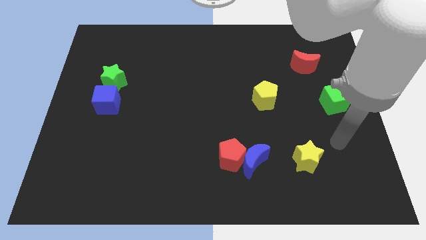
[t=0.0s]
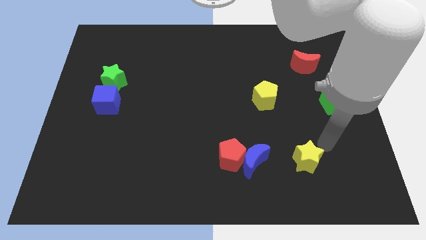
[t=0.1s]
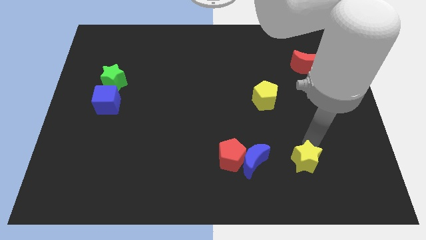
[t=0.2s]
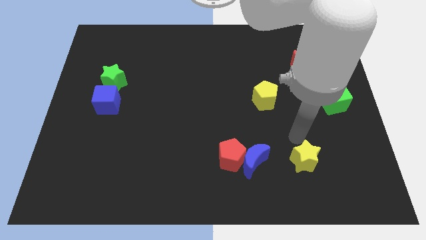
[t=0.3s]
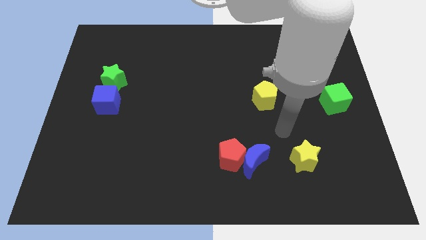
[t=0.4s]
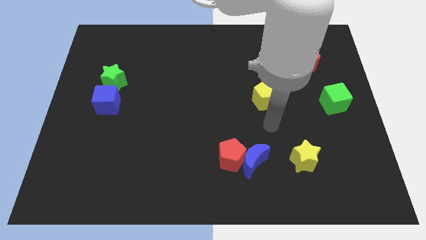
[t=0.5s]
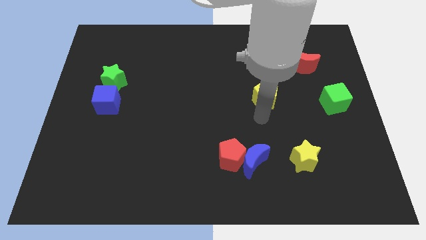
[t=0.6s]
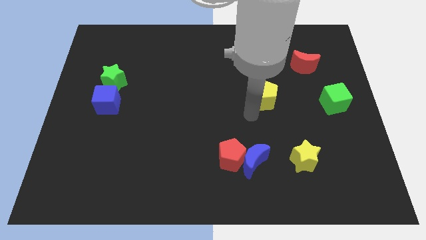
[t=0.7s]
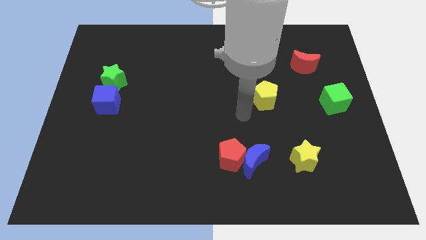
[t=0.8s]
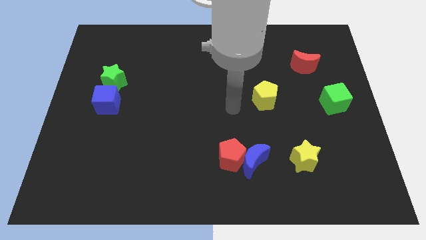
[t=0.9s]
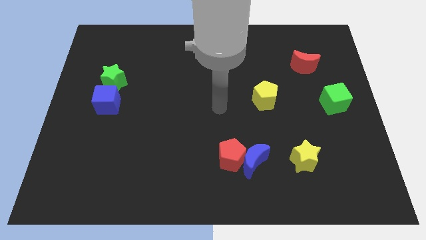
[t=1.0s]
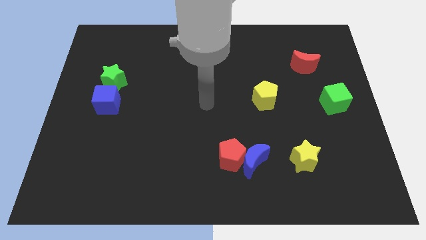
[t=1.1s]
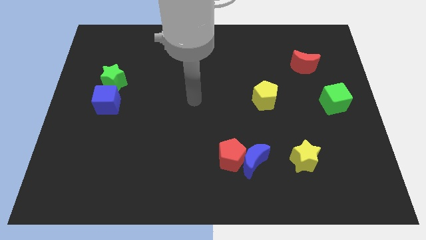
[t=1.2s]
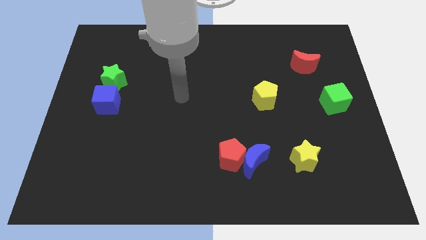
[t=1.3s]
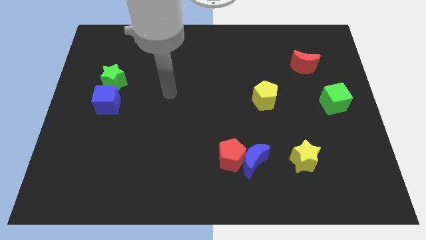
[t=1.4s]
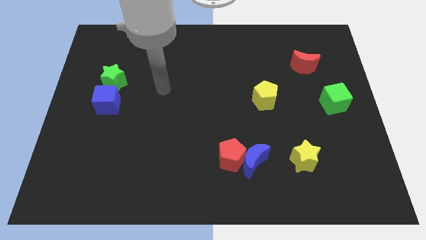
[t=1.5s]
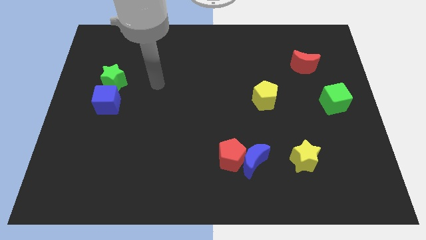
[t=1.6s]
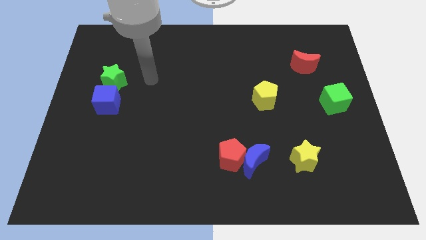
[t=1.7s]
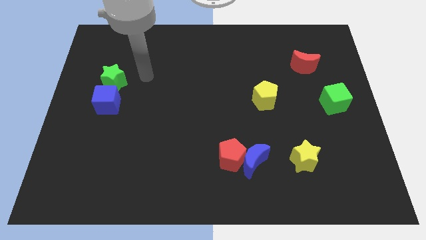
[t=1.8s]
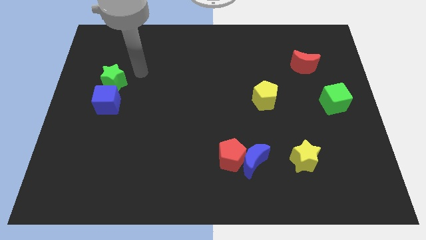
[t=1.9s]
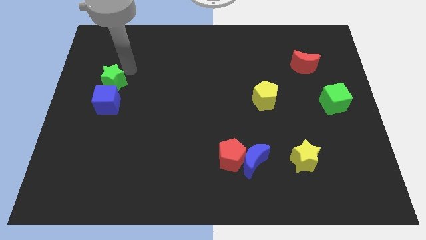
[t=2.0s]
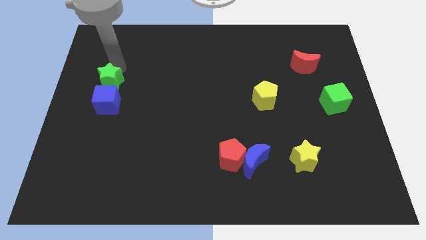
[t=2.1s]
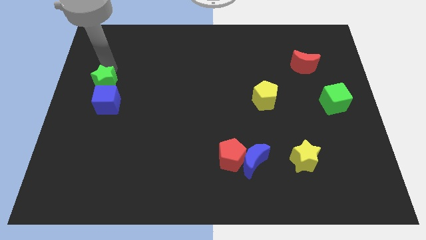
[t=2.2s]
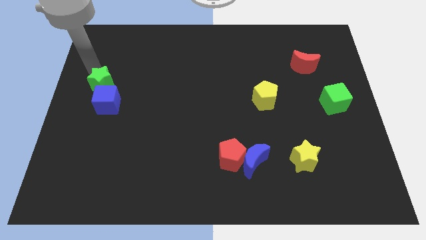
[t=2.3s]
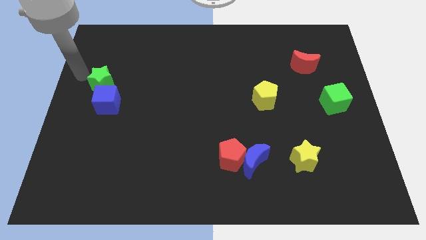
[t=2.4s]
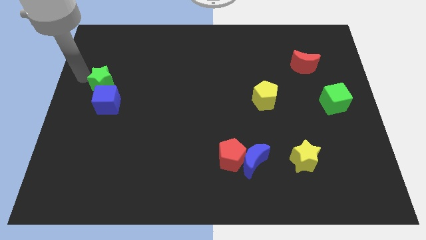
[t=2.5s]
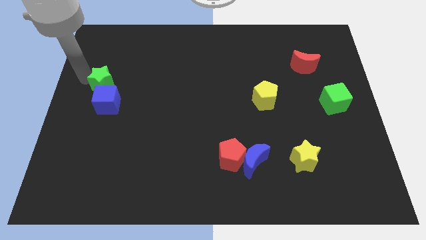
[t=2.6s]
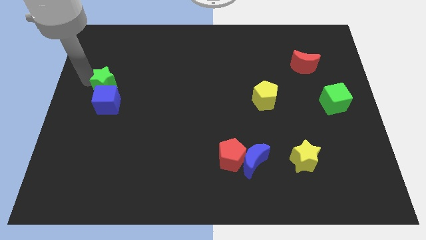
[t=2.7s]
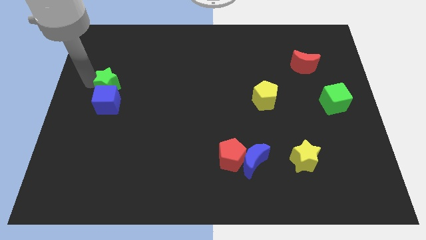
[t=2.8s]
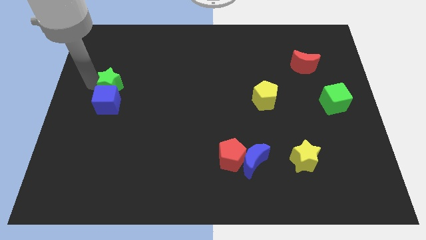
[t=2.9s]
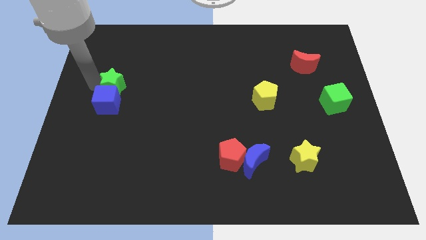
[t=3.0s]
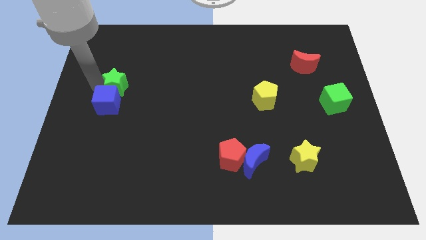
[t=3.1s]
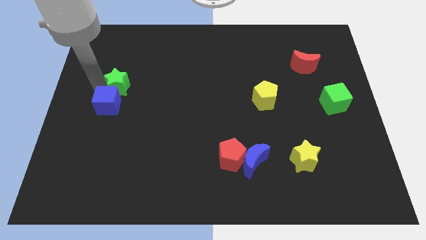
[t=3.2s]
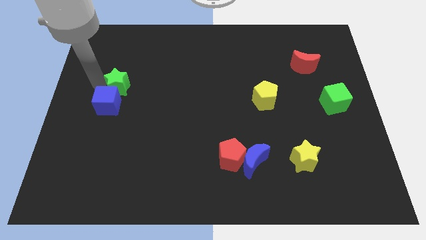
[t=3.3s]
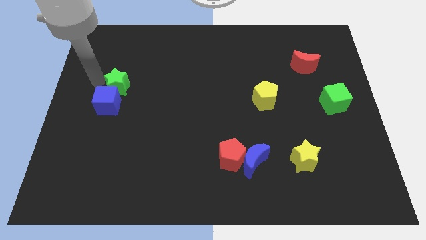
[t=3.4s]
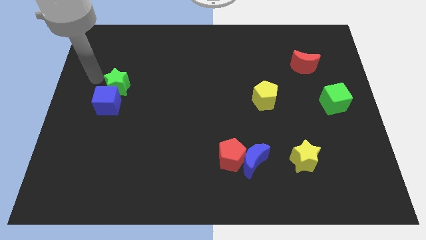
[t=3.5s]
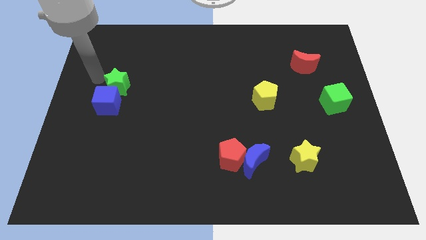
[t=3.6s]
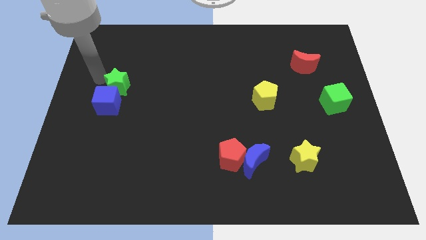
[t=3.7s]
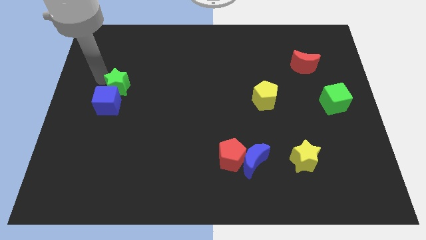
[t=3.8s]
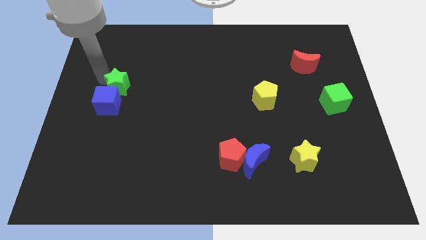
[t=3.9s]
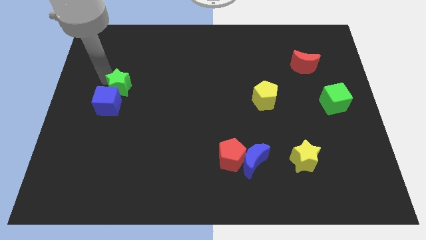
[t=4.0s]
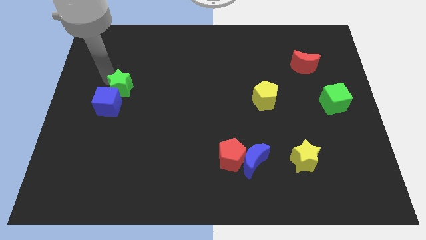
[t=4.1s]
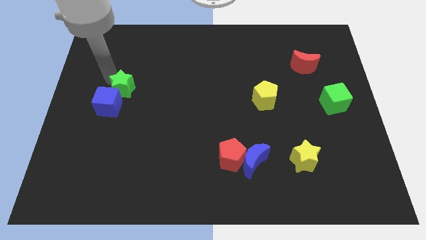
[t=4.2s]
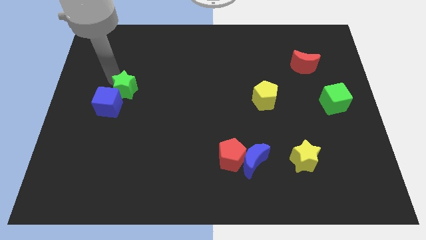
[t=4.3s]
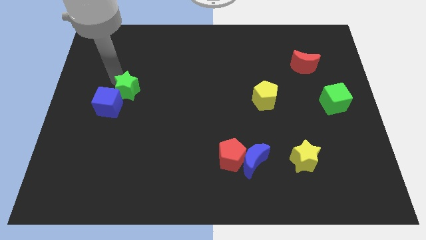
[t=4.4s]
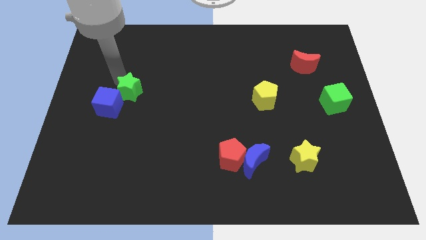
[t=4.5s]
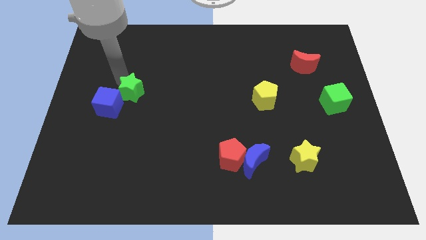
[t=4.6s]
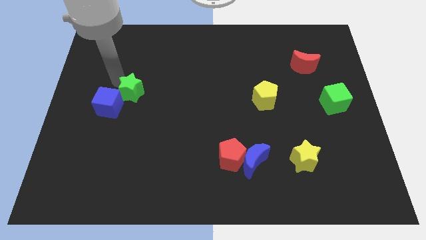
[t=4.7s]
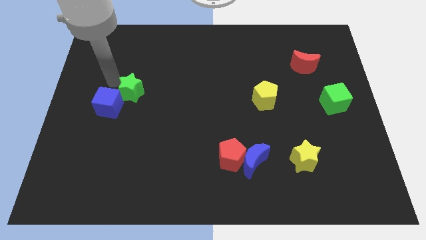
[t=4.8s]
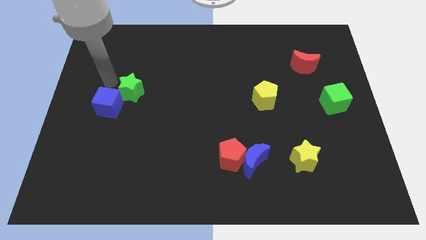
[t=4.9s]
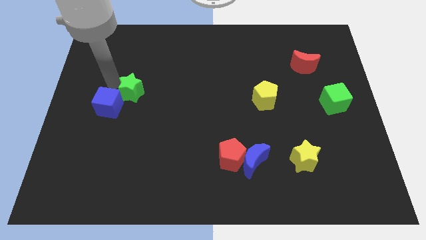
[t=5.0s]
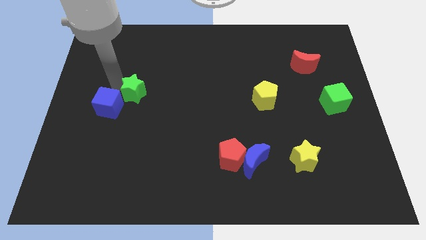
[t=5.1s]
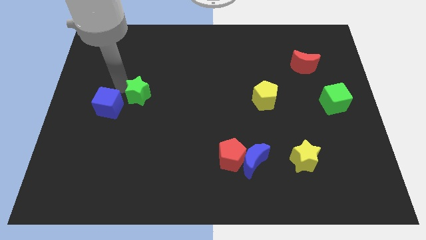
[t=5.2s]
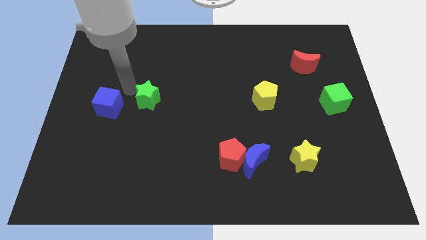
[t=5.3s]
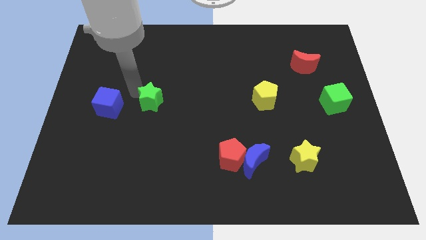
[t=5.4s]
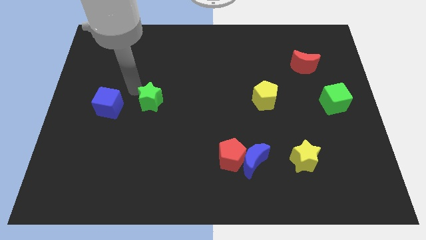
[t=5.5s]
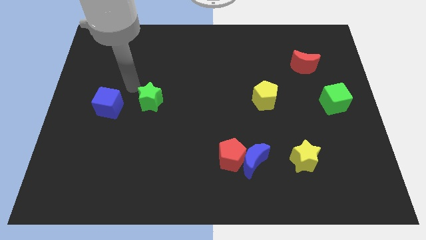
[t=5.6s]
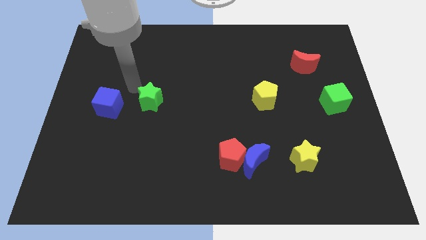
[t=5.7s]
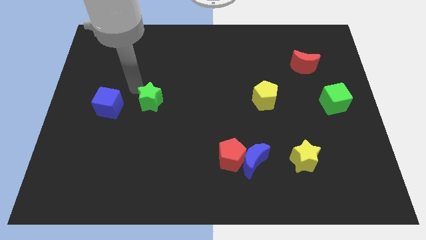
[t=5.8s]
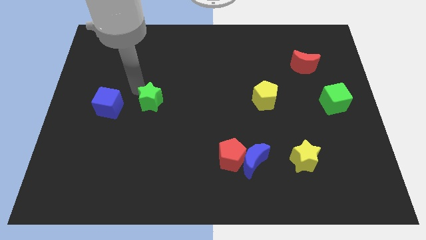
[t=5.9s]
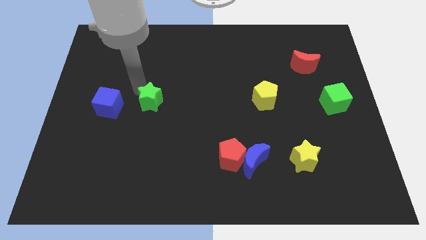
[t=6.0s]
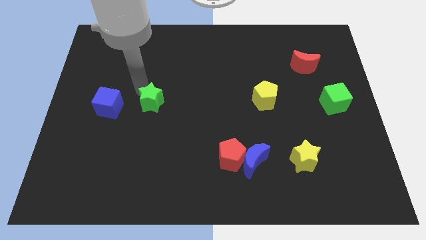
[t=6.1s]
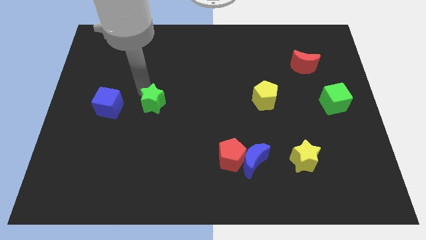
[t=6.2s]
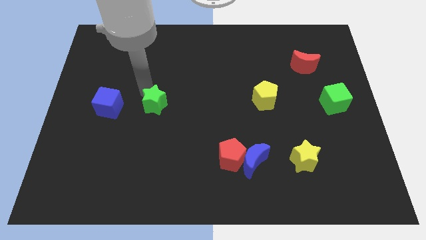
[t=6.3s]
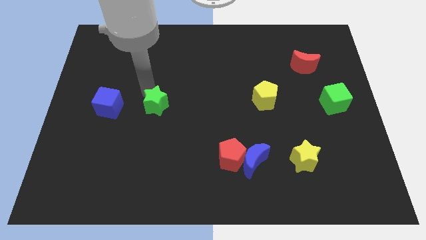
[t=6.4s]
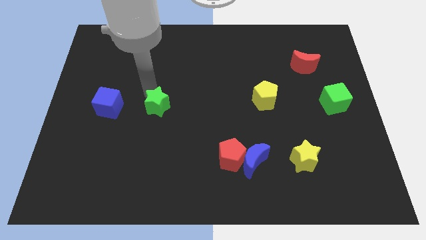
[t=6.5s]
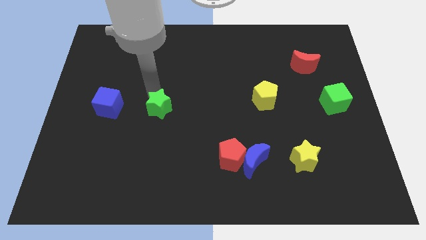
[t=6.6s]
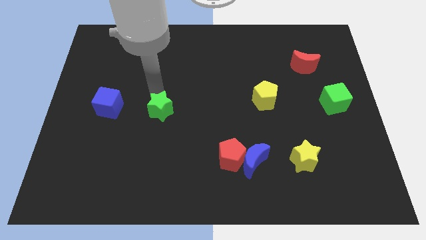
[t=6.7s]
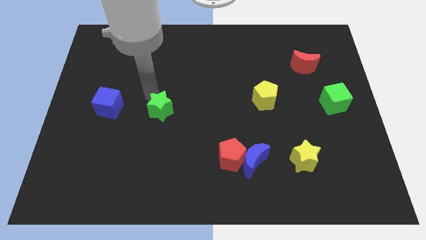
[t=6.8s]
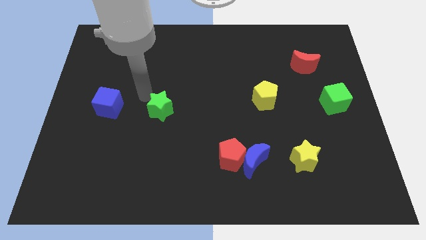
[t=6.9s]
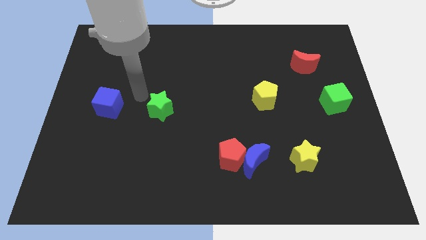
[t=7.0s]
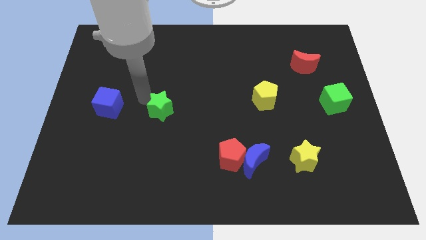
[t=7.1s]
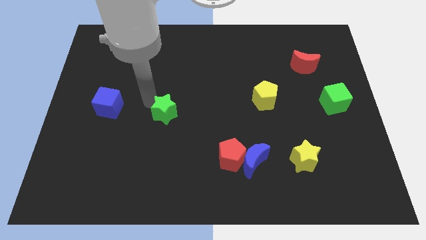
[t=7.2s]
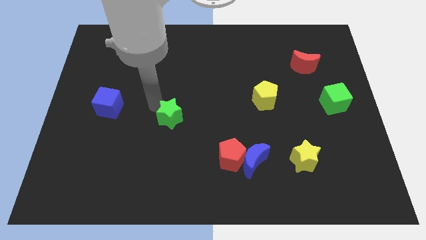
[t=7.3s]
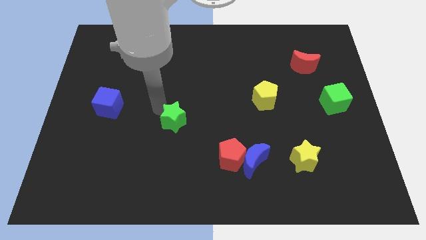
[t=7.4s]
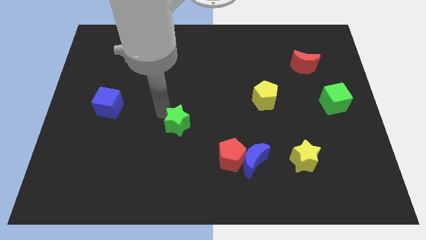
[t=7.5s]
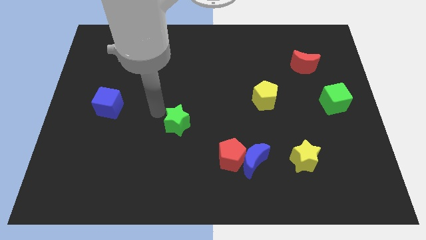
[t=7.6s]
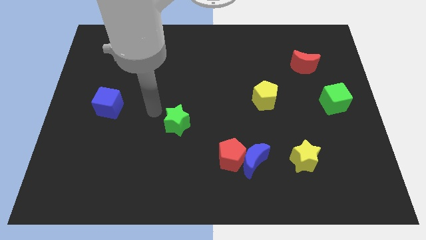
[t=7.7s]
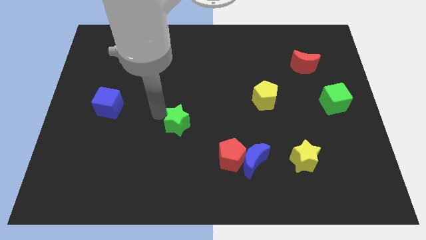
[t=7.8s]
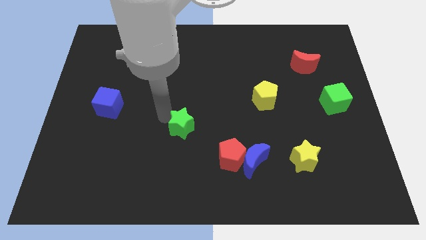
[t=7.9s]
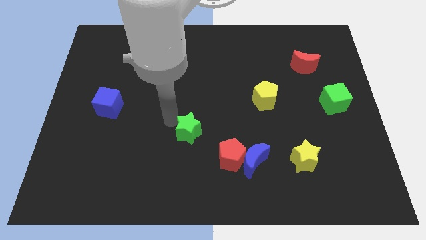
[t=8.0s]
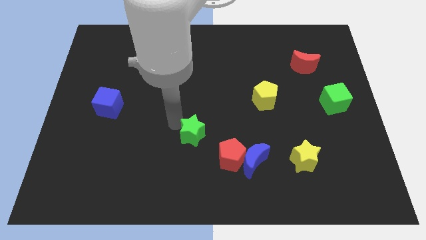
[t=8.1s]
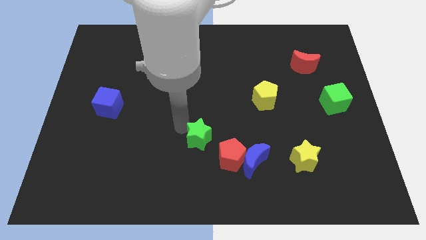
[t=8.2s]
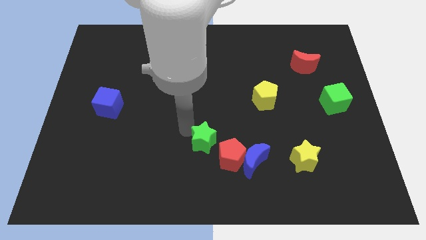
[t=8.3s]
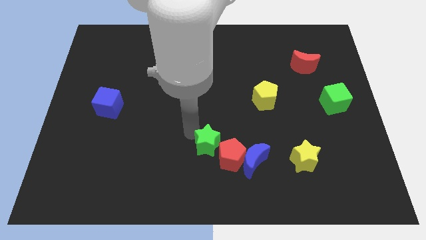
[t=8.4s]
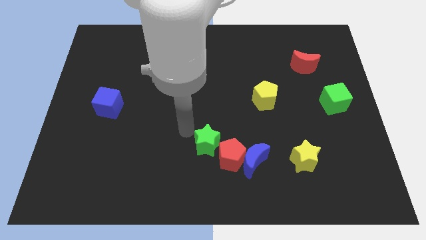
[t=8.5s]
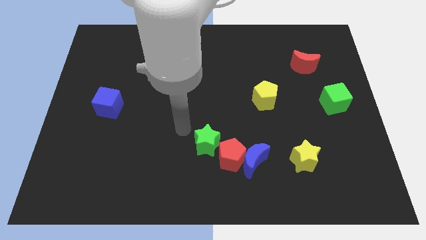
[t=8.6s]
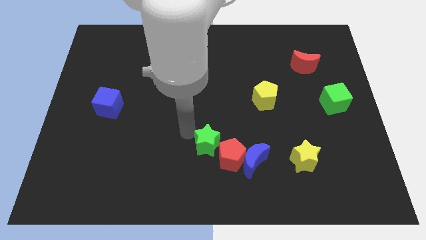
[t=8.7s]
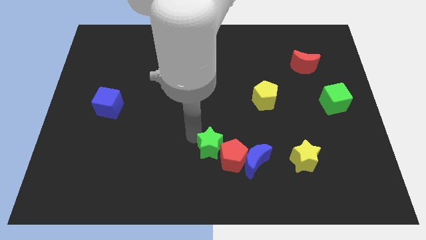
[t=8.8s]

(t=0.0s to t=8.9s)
put the green star close to the red pentagon
